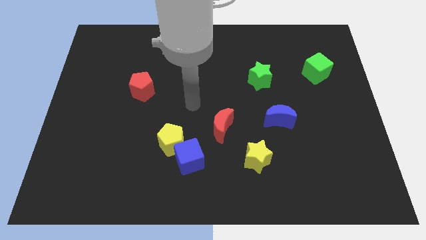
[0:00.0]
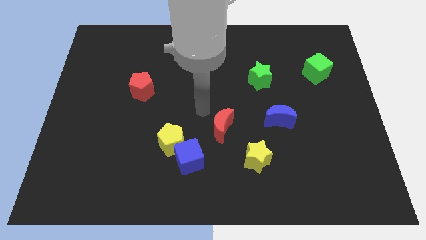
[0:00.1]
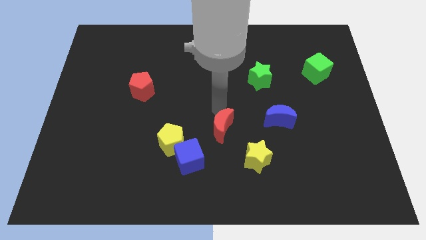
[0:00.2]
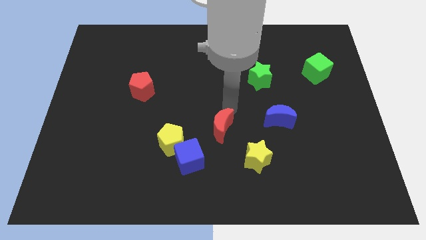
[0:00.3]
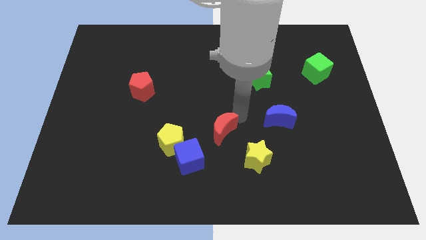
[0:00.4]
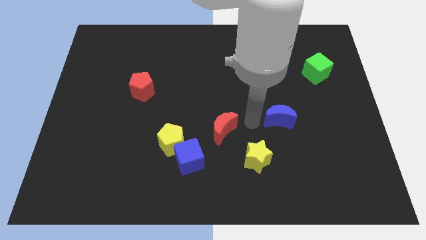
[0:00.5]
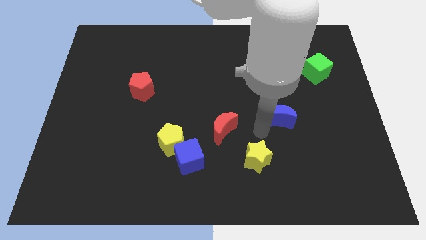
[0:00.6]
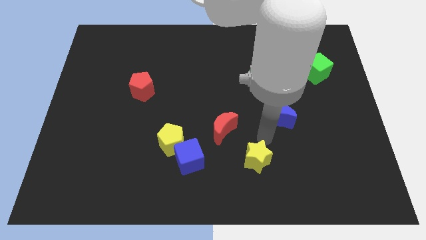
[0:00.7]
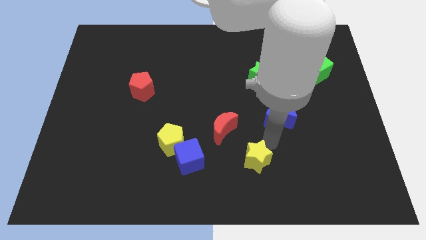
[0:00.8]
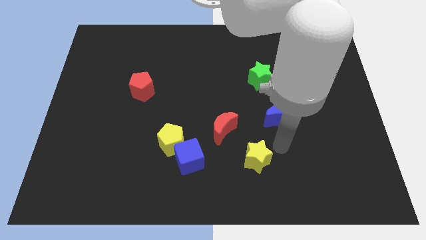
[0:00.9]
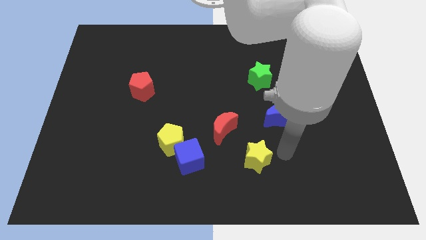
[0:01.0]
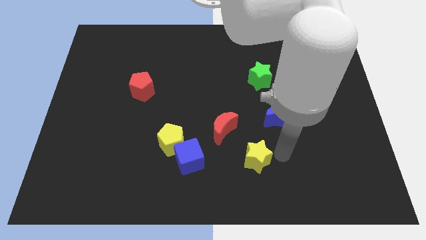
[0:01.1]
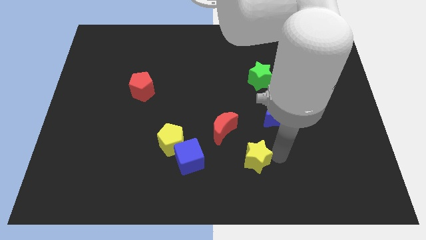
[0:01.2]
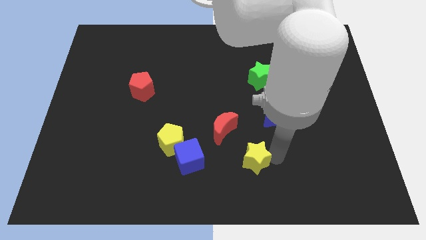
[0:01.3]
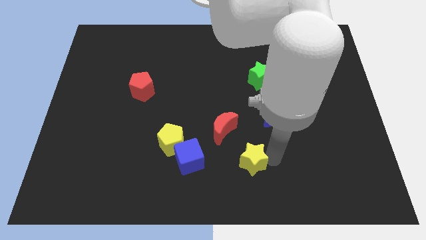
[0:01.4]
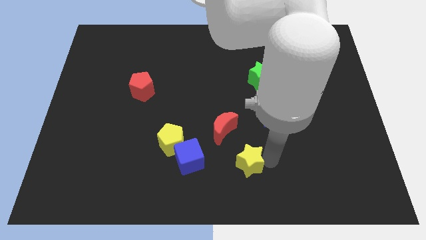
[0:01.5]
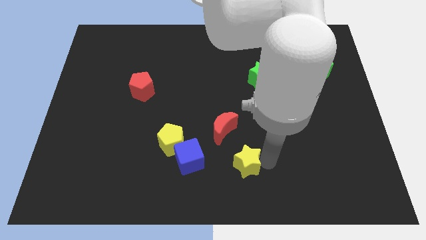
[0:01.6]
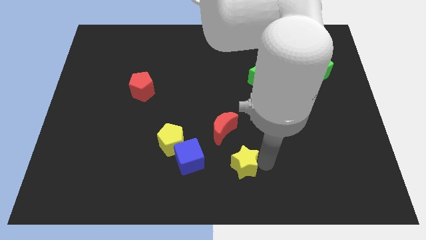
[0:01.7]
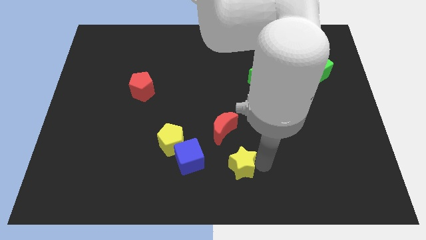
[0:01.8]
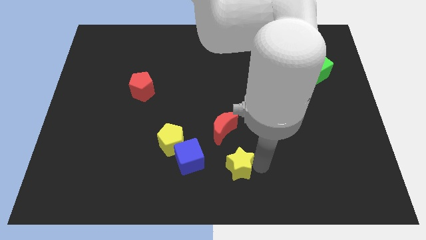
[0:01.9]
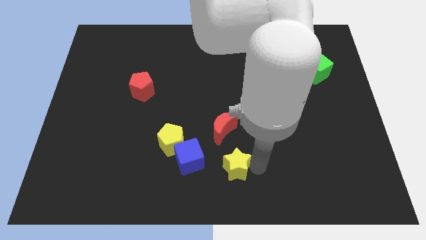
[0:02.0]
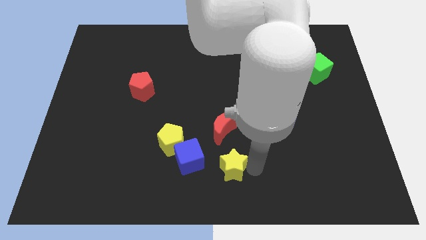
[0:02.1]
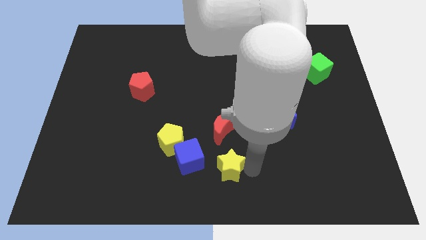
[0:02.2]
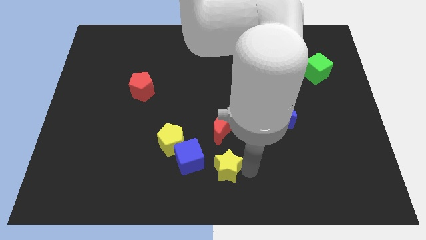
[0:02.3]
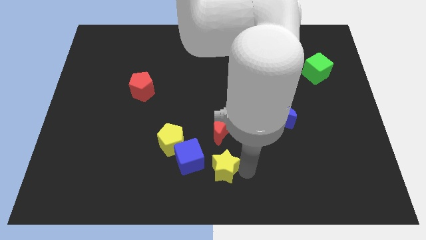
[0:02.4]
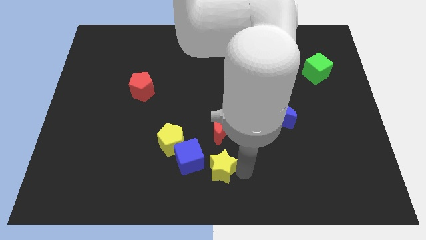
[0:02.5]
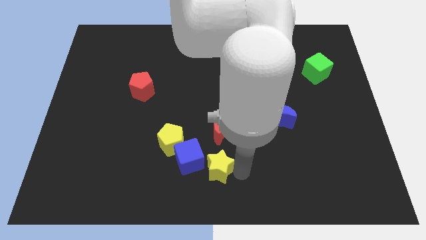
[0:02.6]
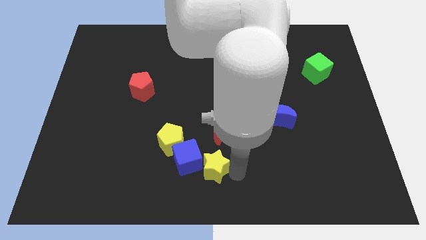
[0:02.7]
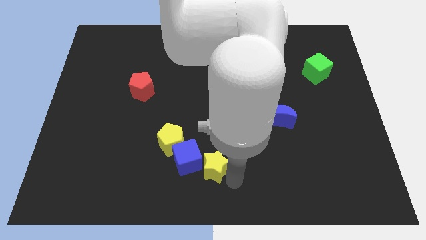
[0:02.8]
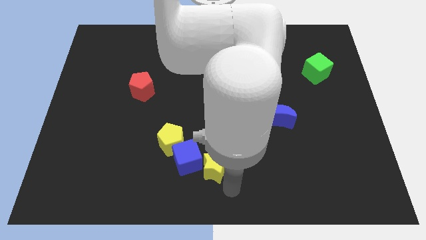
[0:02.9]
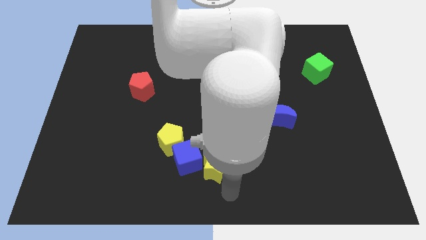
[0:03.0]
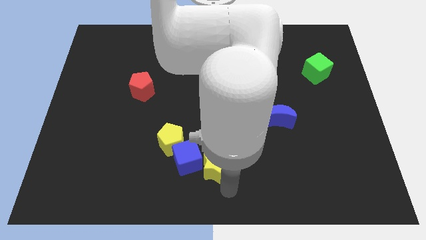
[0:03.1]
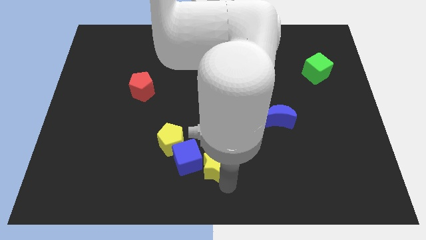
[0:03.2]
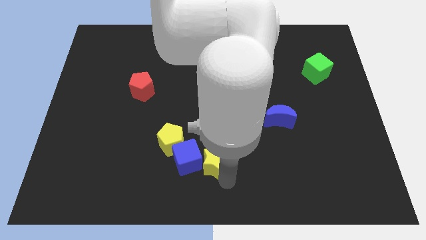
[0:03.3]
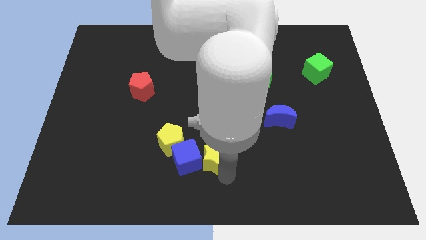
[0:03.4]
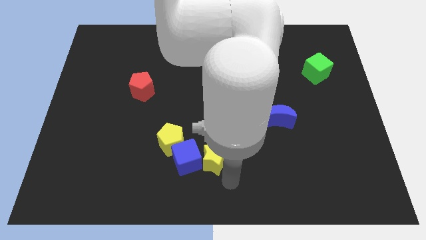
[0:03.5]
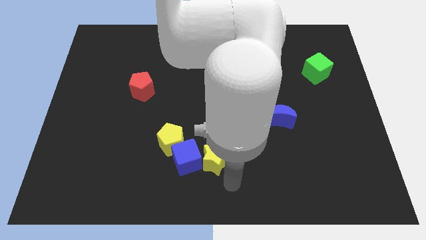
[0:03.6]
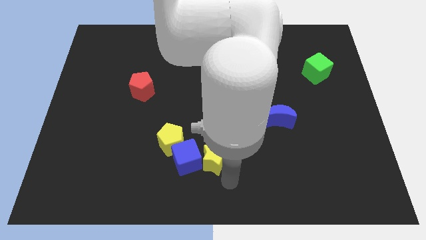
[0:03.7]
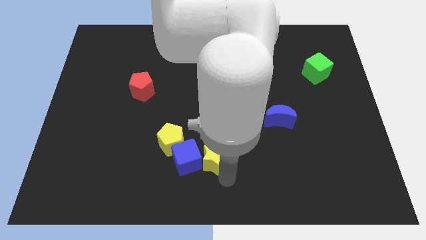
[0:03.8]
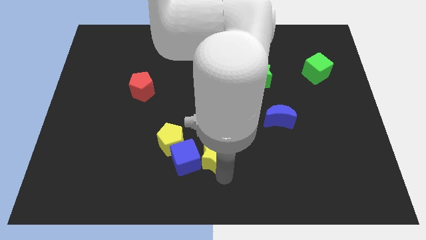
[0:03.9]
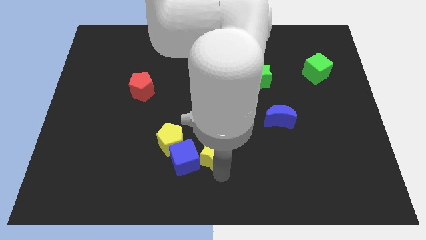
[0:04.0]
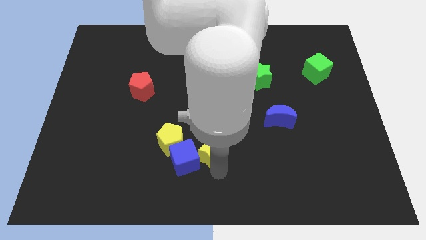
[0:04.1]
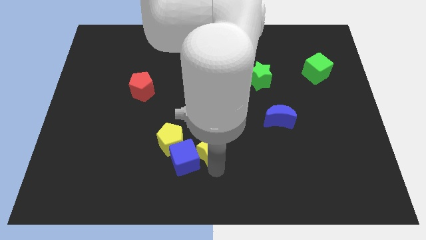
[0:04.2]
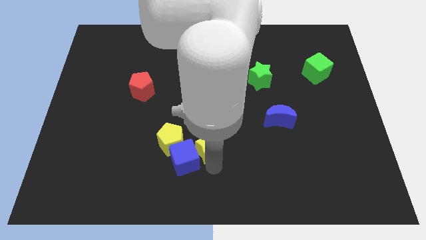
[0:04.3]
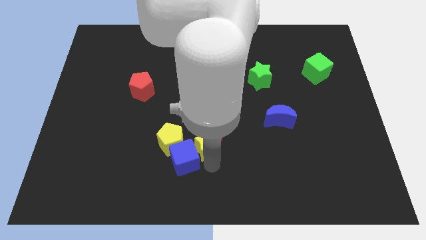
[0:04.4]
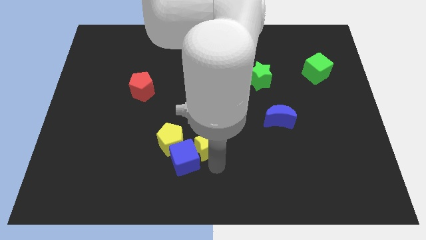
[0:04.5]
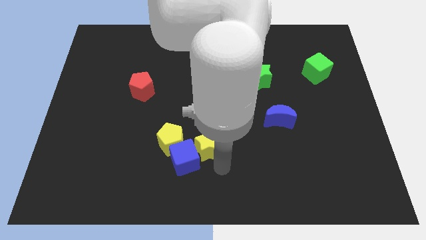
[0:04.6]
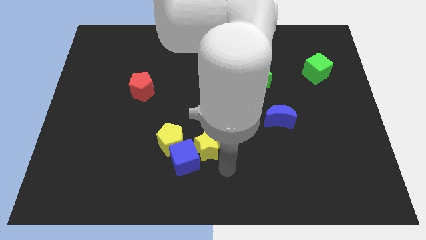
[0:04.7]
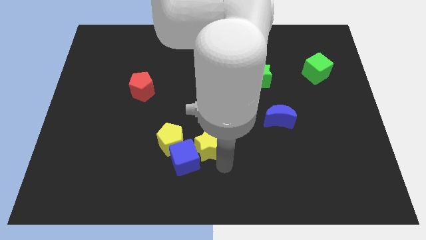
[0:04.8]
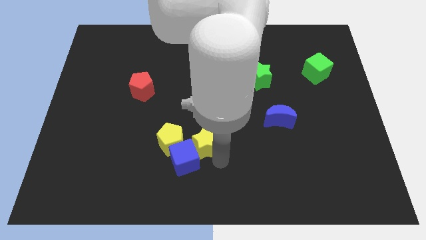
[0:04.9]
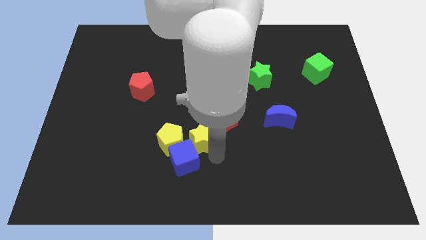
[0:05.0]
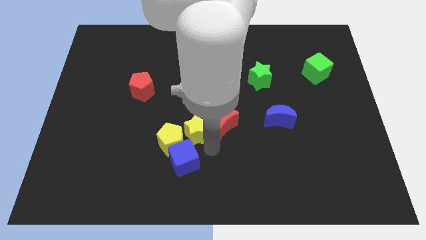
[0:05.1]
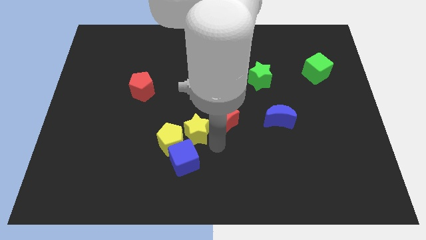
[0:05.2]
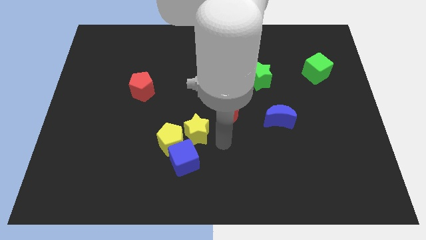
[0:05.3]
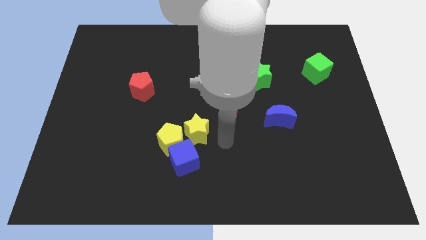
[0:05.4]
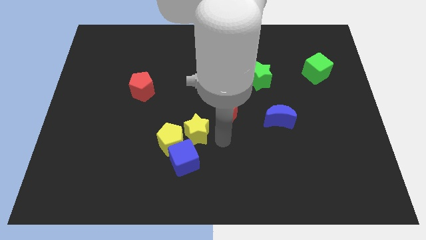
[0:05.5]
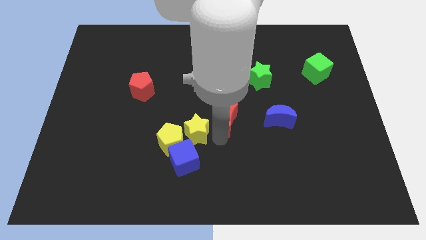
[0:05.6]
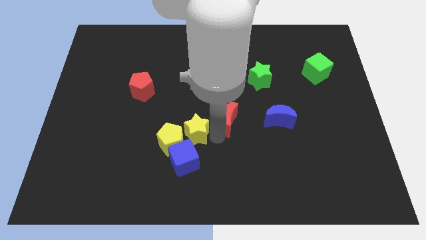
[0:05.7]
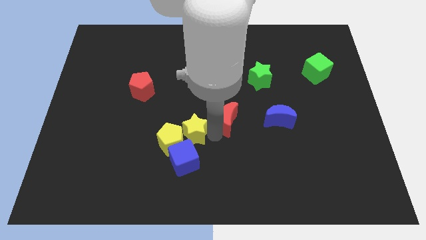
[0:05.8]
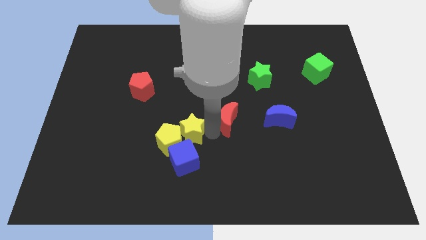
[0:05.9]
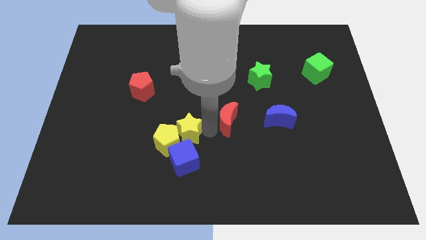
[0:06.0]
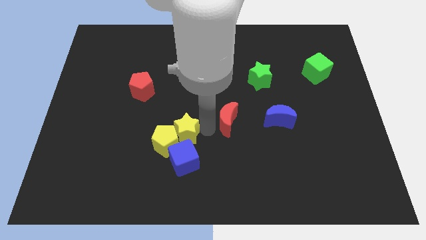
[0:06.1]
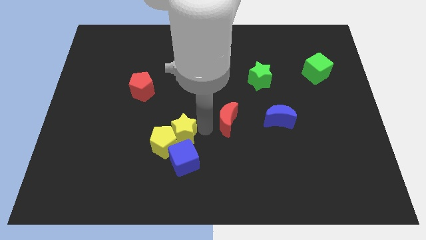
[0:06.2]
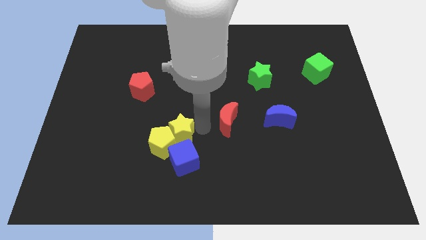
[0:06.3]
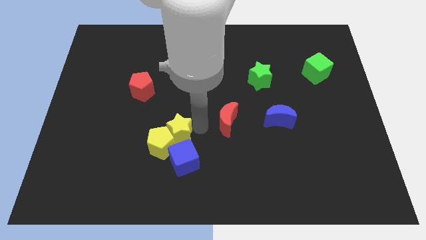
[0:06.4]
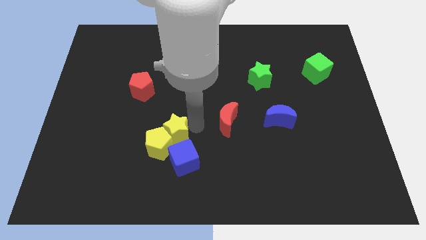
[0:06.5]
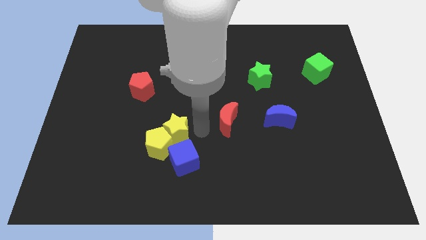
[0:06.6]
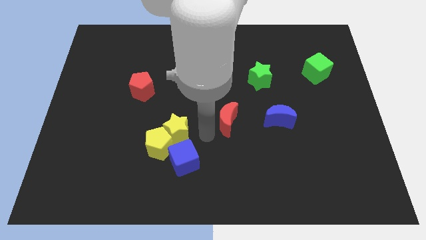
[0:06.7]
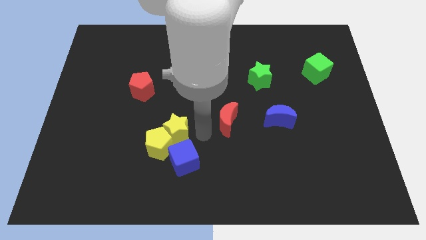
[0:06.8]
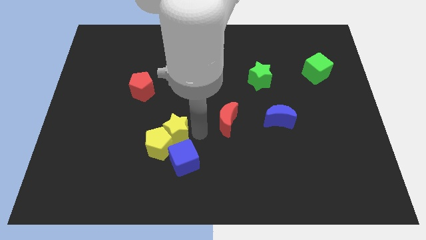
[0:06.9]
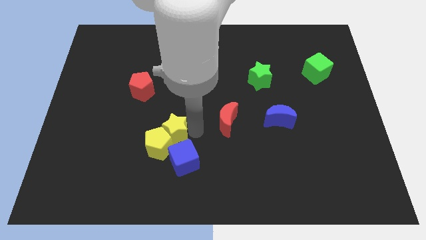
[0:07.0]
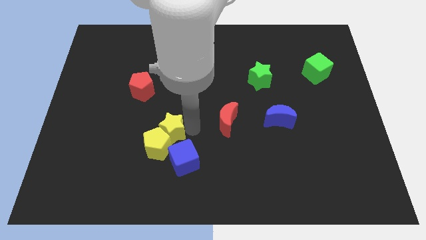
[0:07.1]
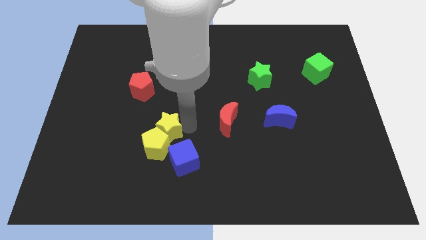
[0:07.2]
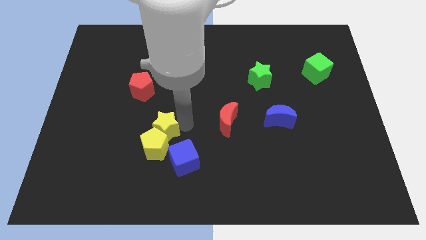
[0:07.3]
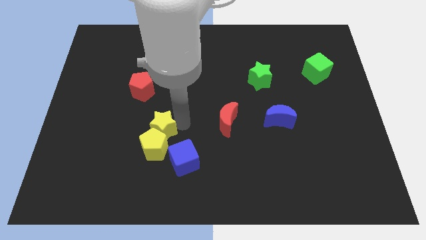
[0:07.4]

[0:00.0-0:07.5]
slide the yellow star to the top left side of the yellow pentagon

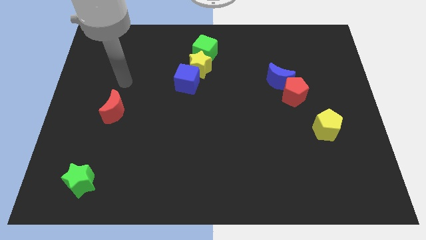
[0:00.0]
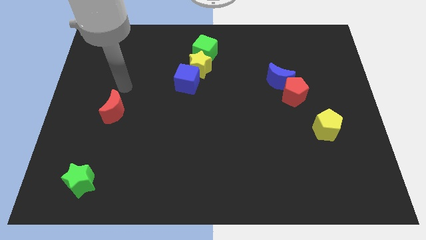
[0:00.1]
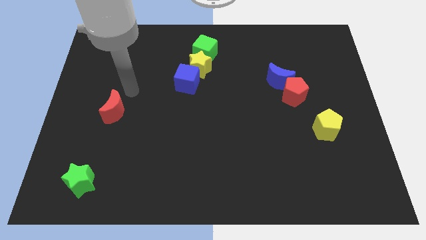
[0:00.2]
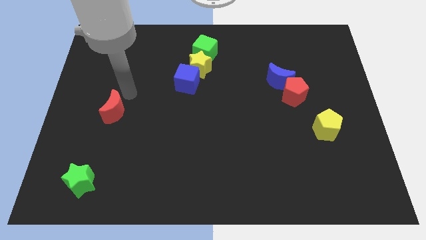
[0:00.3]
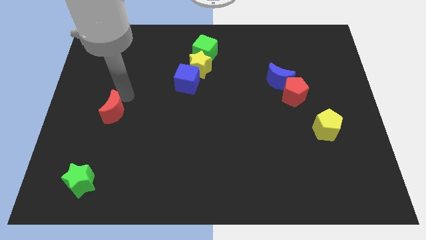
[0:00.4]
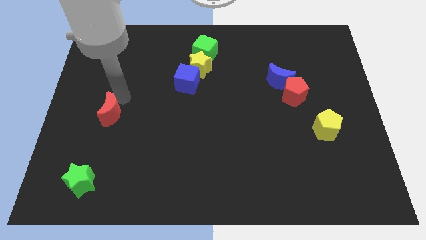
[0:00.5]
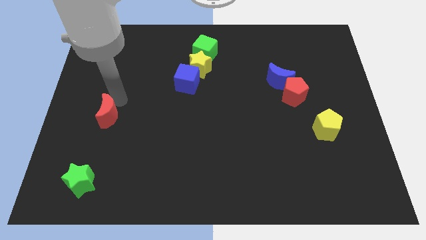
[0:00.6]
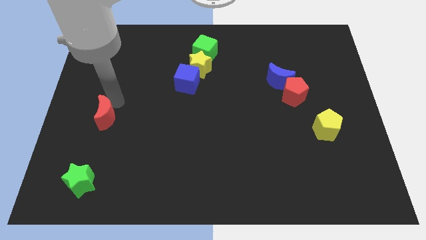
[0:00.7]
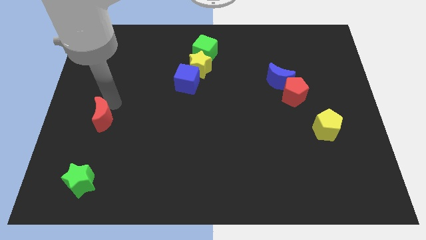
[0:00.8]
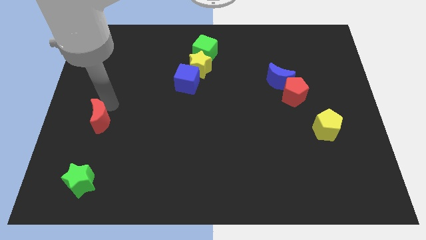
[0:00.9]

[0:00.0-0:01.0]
slide the red moon above the green star
